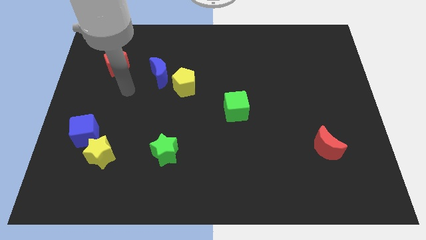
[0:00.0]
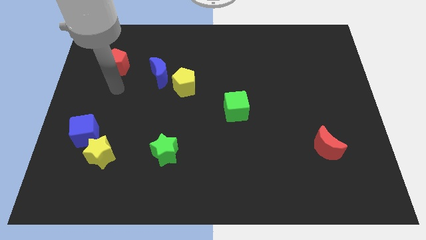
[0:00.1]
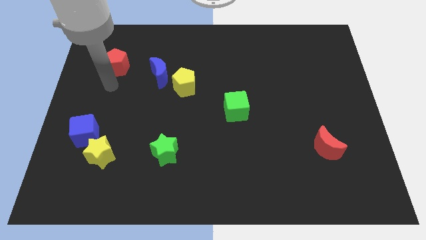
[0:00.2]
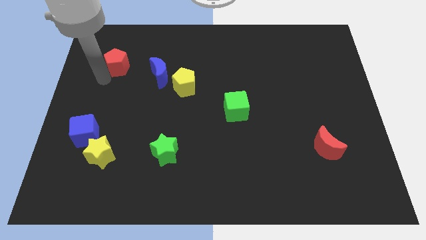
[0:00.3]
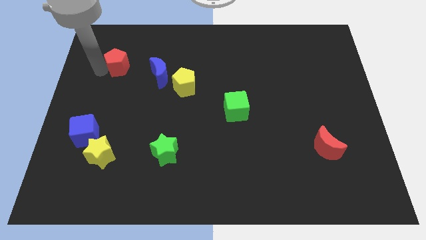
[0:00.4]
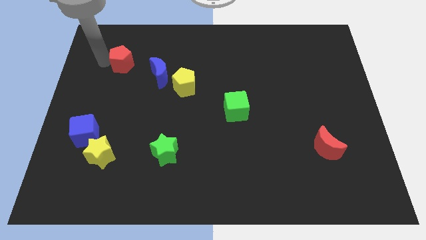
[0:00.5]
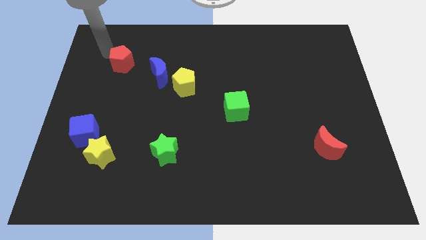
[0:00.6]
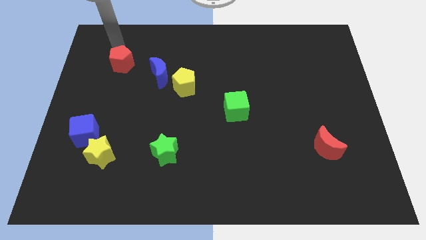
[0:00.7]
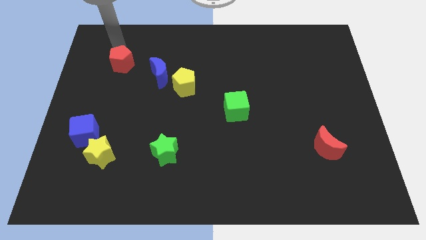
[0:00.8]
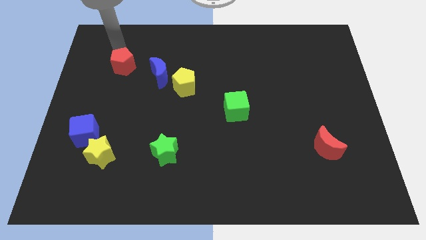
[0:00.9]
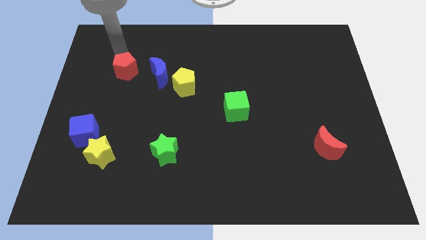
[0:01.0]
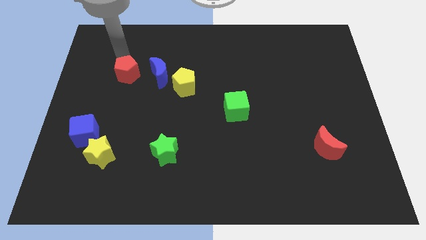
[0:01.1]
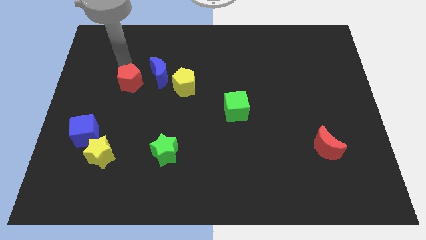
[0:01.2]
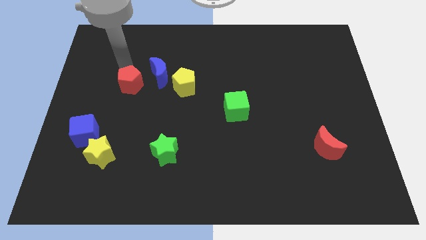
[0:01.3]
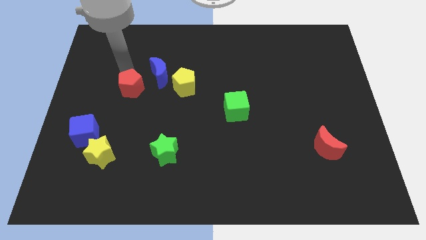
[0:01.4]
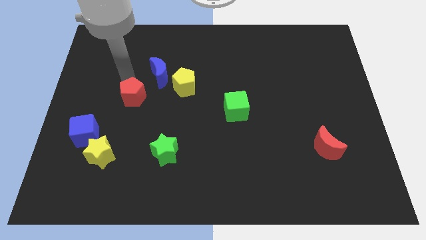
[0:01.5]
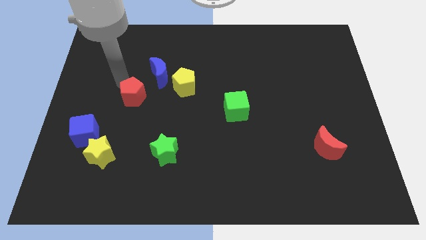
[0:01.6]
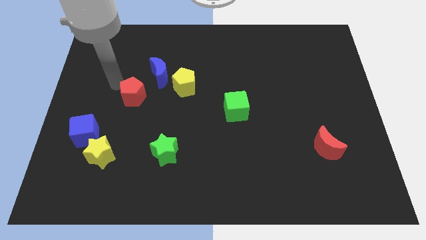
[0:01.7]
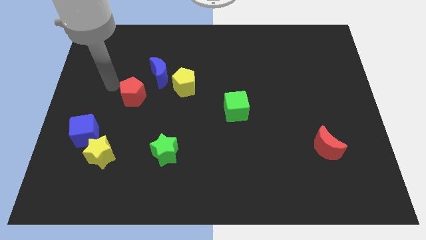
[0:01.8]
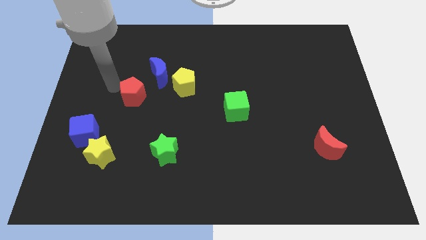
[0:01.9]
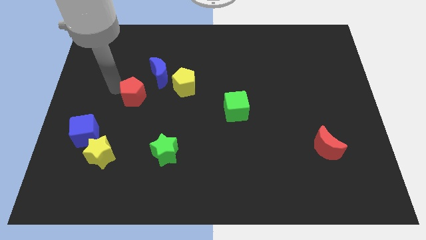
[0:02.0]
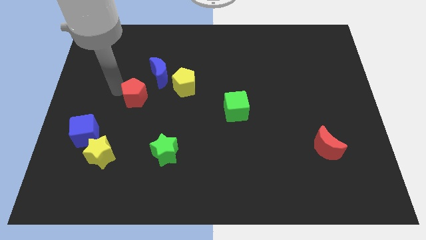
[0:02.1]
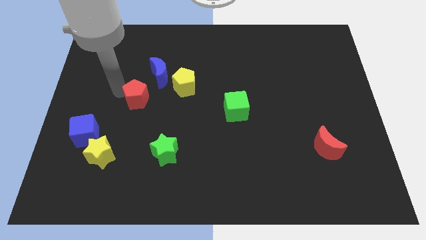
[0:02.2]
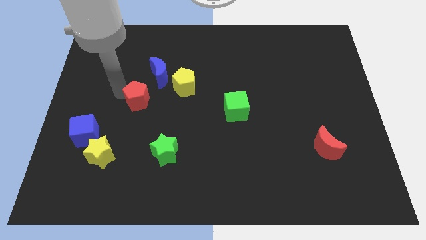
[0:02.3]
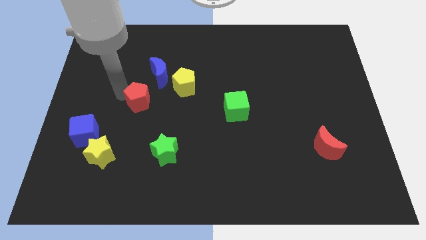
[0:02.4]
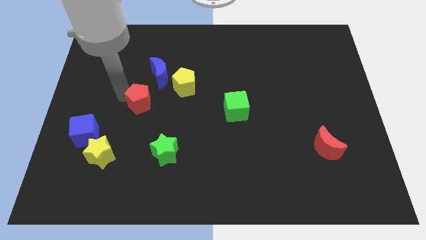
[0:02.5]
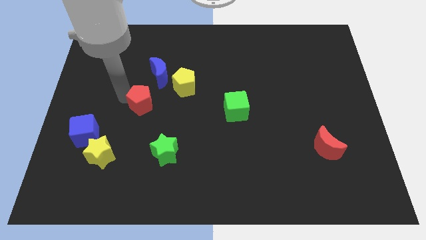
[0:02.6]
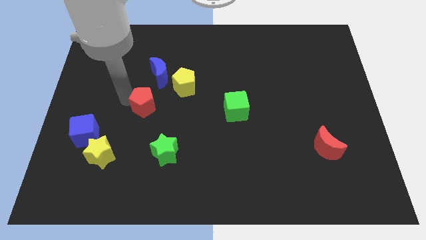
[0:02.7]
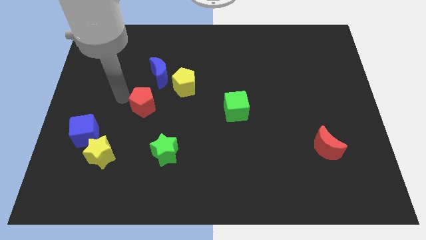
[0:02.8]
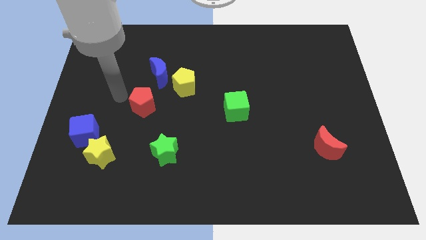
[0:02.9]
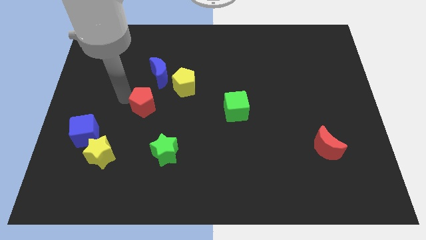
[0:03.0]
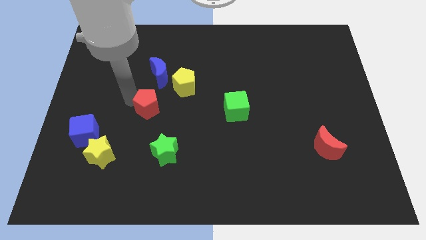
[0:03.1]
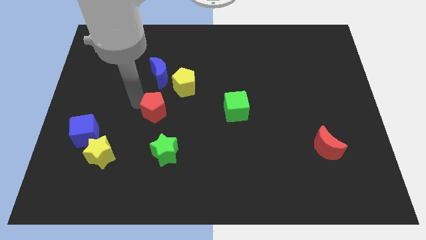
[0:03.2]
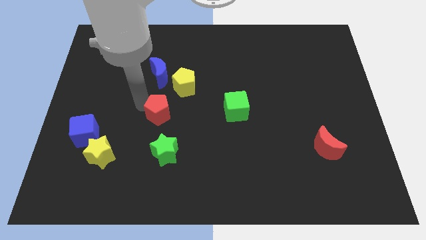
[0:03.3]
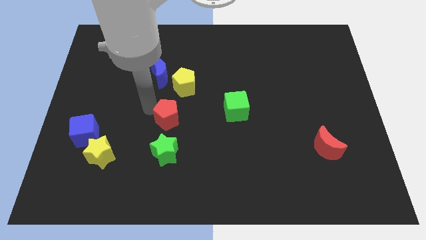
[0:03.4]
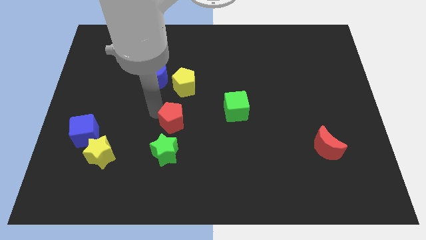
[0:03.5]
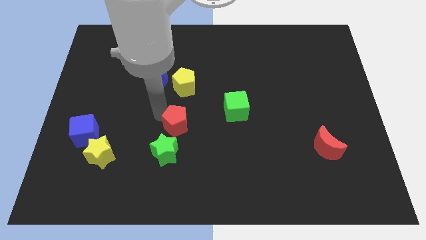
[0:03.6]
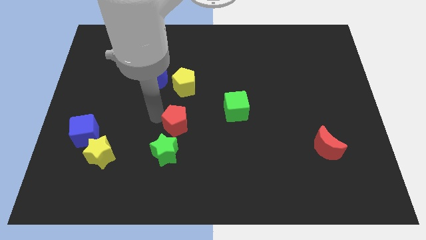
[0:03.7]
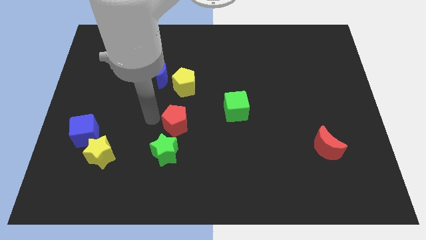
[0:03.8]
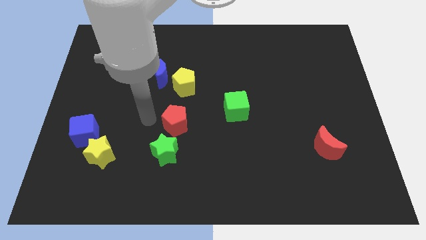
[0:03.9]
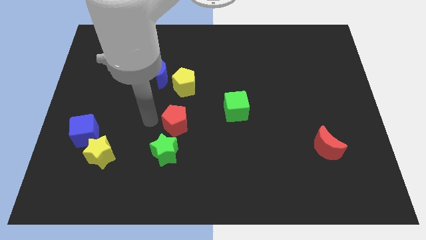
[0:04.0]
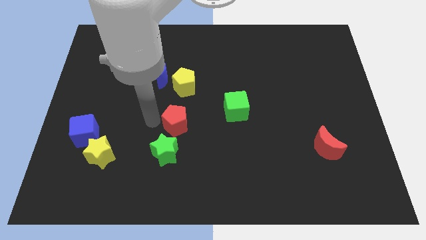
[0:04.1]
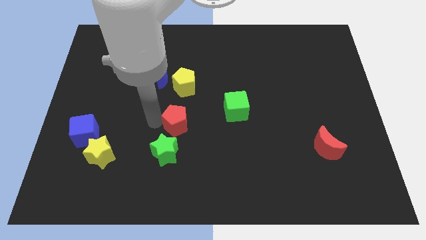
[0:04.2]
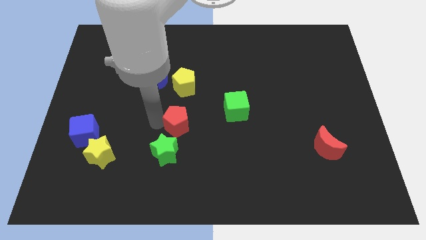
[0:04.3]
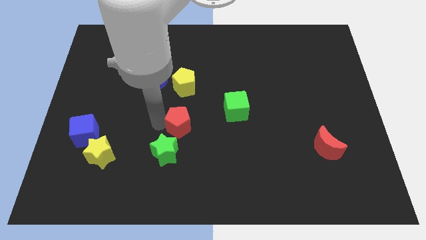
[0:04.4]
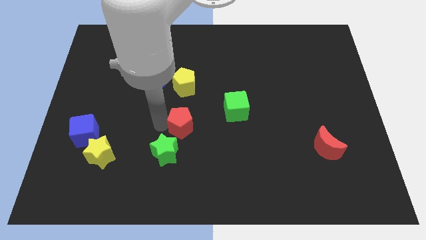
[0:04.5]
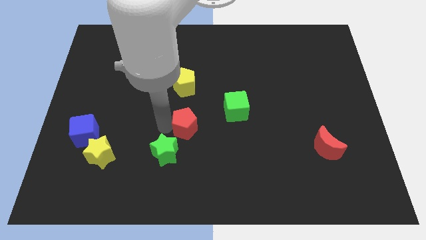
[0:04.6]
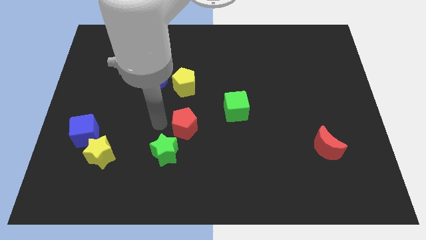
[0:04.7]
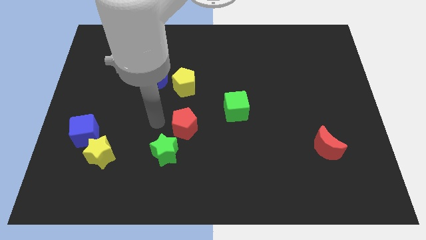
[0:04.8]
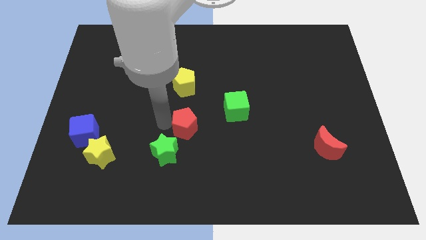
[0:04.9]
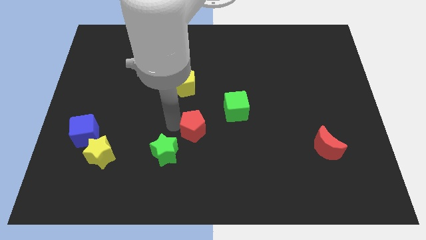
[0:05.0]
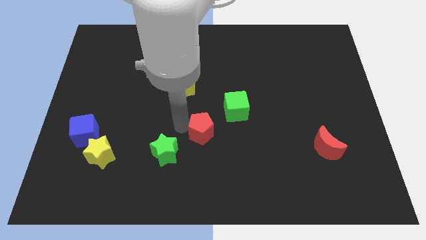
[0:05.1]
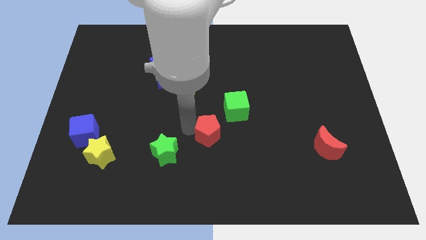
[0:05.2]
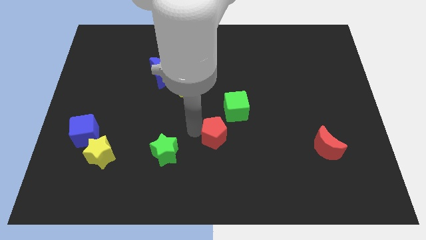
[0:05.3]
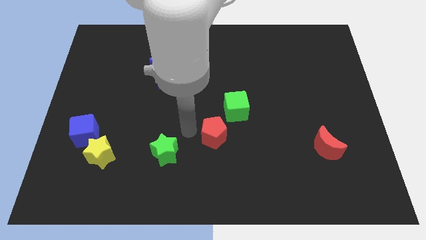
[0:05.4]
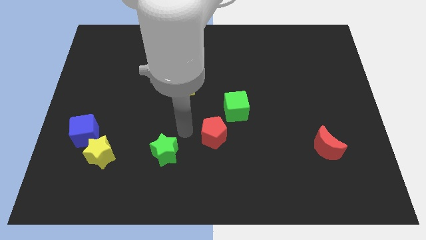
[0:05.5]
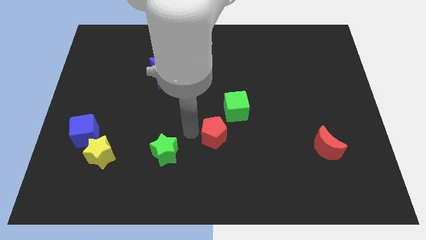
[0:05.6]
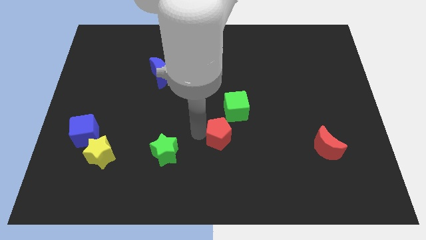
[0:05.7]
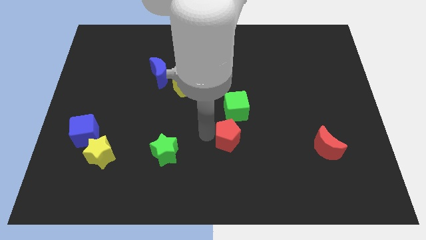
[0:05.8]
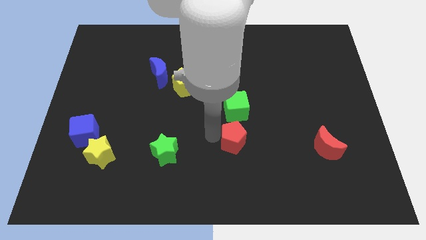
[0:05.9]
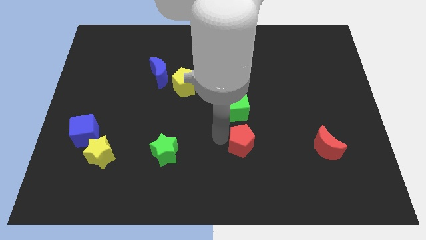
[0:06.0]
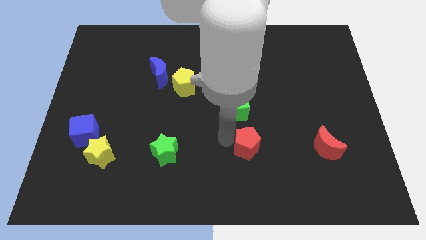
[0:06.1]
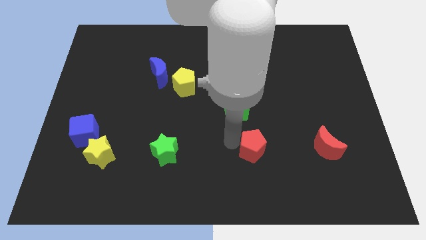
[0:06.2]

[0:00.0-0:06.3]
push the red pentagon to the left side of the red moon
